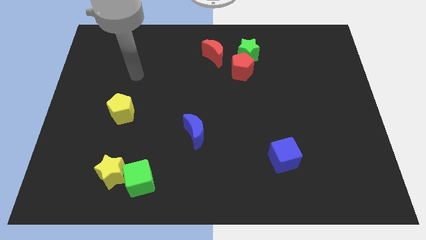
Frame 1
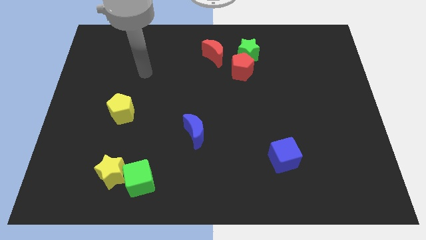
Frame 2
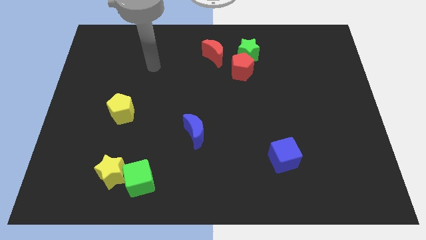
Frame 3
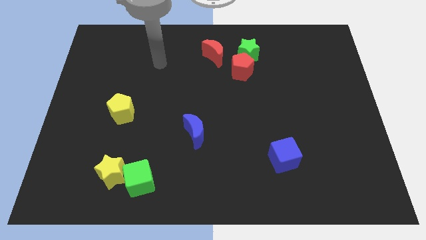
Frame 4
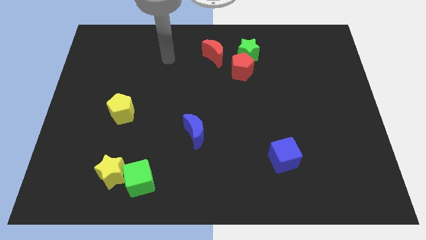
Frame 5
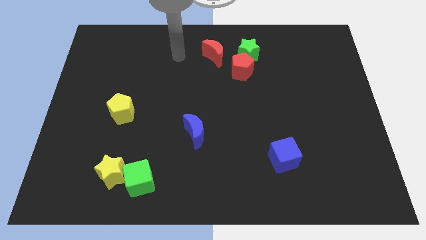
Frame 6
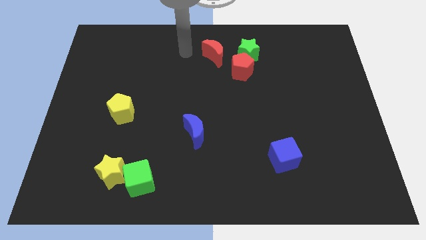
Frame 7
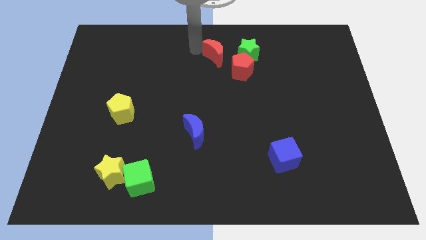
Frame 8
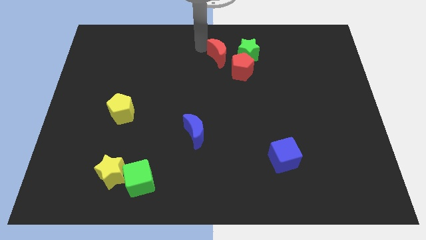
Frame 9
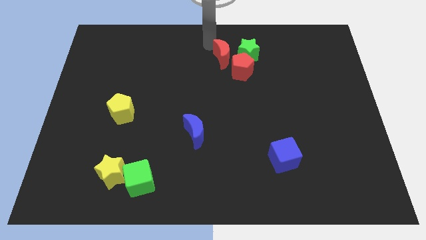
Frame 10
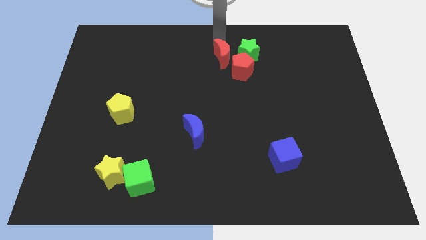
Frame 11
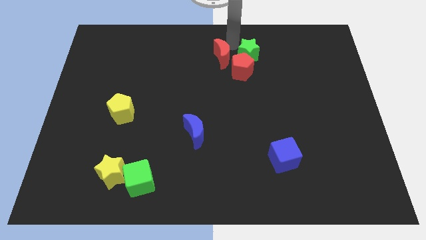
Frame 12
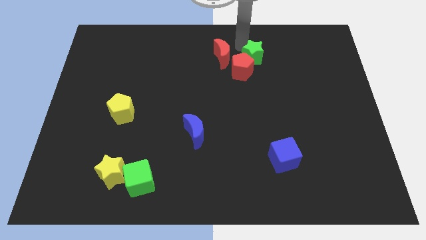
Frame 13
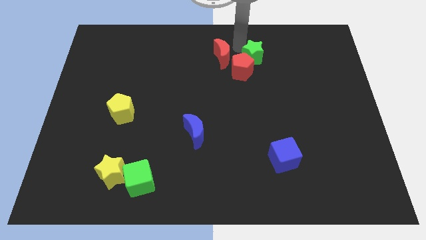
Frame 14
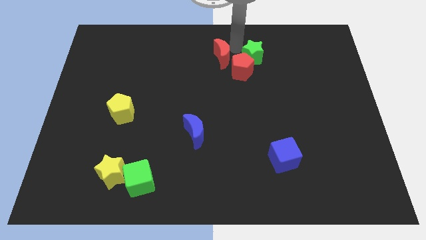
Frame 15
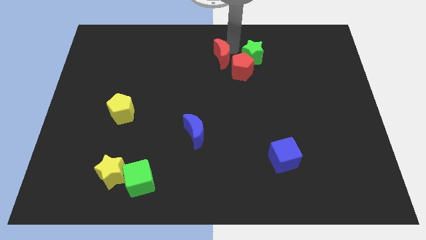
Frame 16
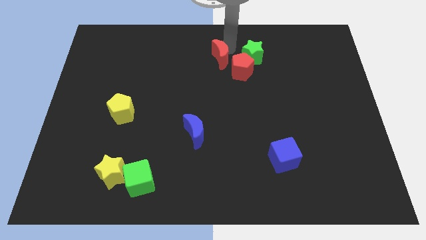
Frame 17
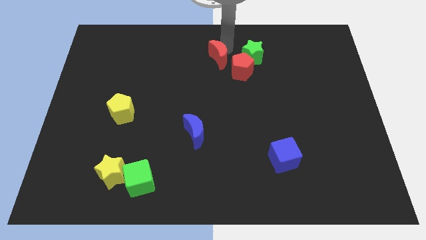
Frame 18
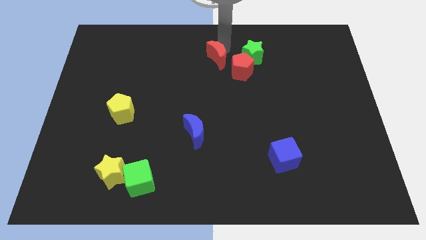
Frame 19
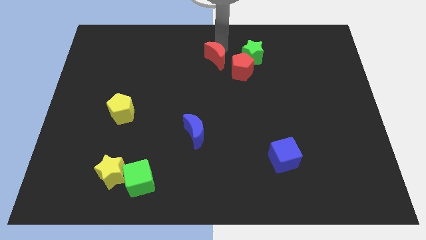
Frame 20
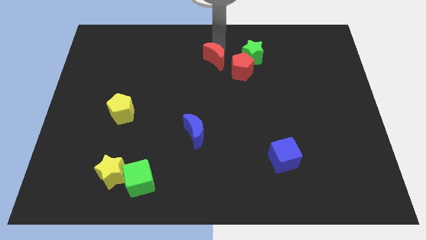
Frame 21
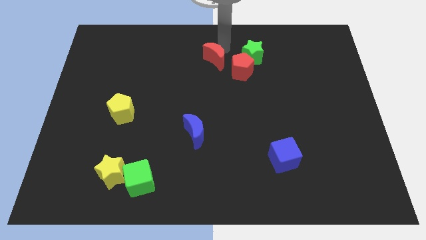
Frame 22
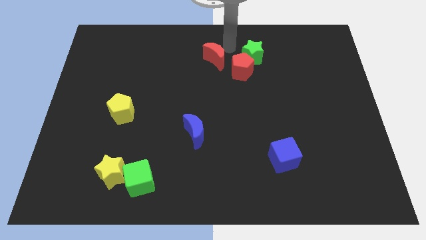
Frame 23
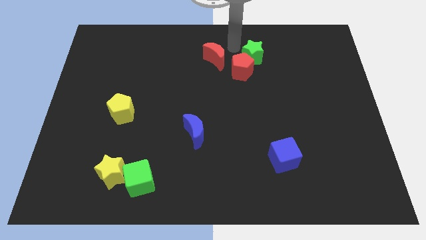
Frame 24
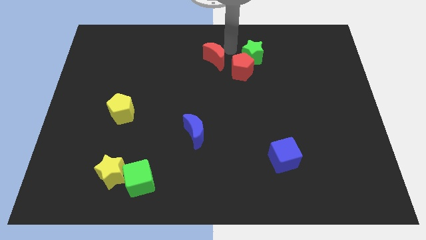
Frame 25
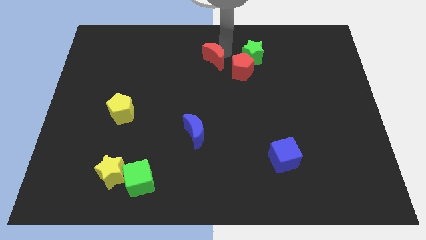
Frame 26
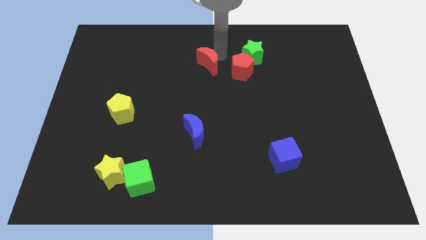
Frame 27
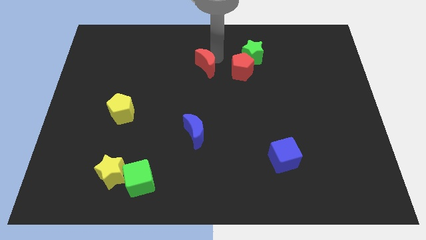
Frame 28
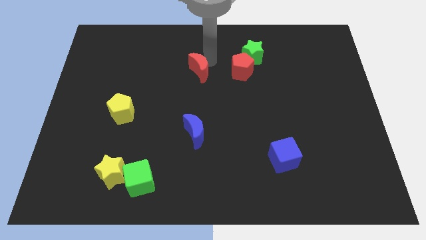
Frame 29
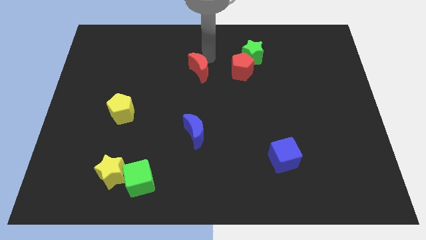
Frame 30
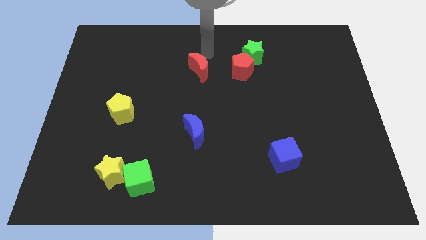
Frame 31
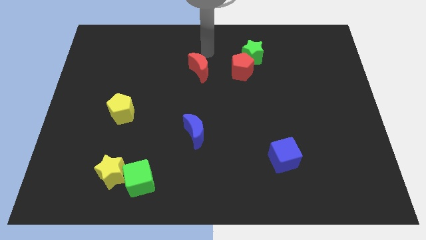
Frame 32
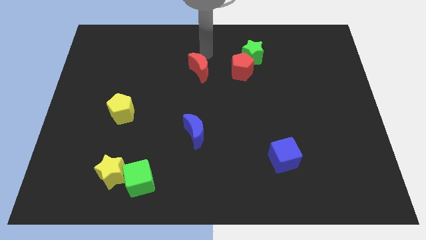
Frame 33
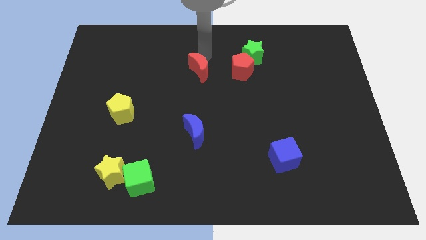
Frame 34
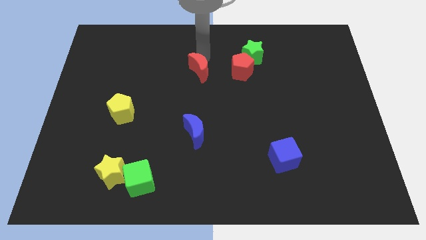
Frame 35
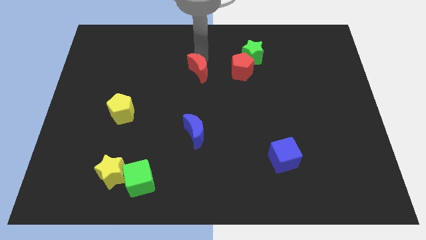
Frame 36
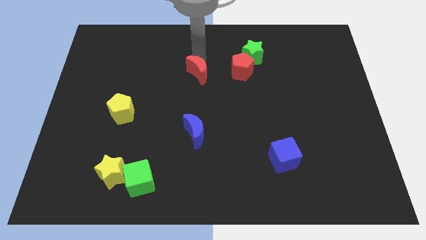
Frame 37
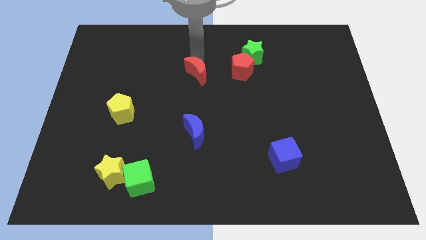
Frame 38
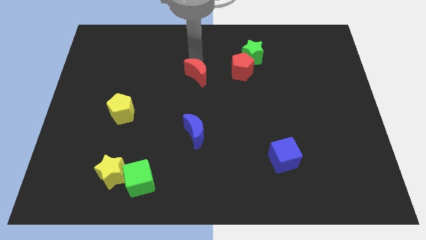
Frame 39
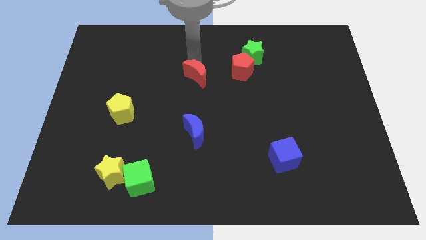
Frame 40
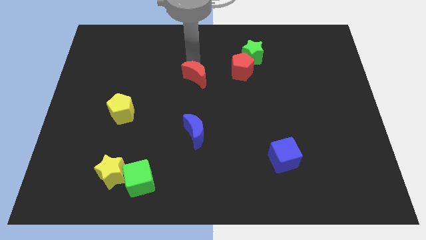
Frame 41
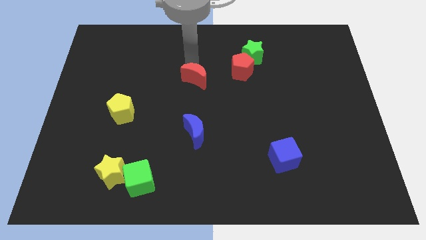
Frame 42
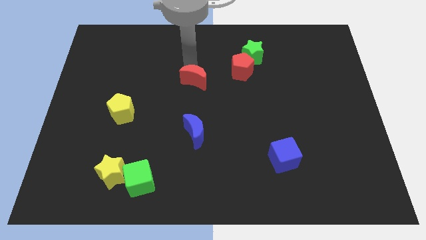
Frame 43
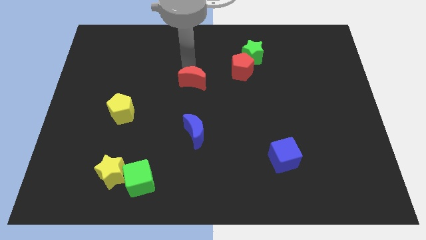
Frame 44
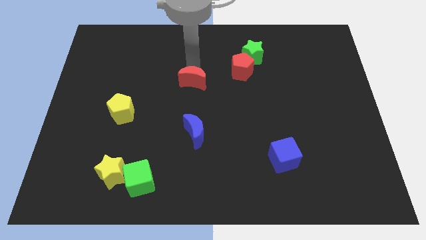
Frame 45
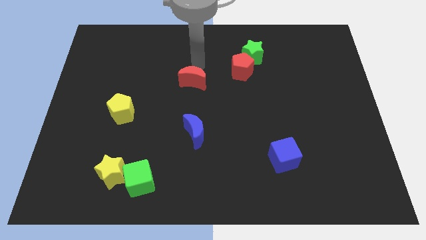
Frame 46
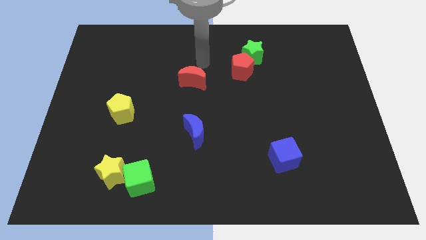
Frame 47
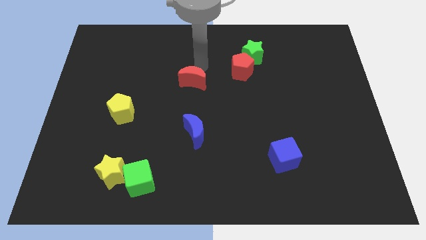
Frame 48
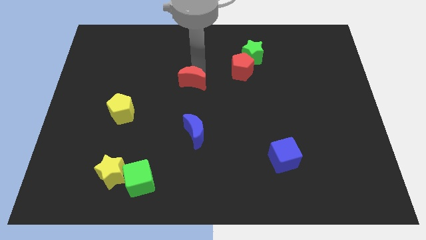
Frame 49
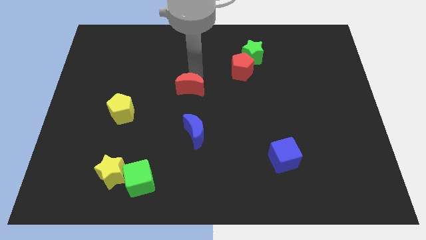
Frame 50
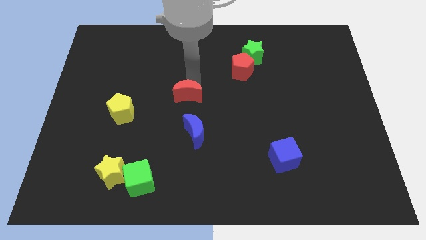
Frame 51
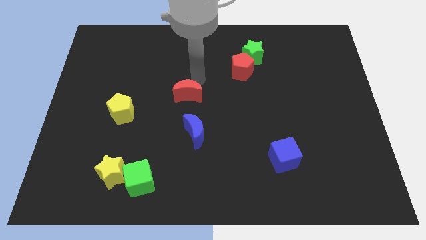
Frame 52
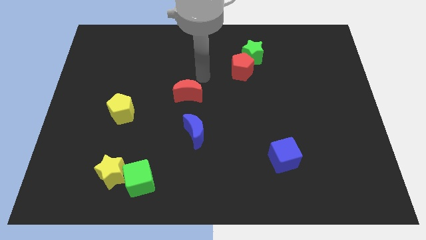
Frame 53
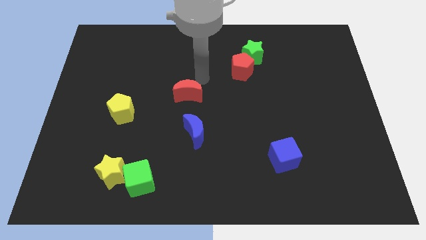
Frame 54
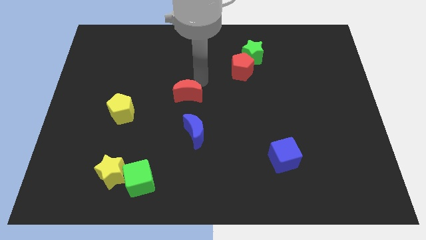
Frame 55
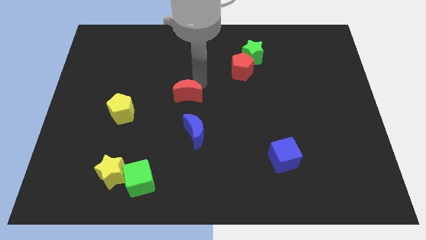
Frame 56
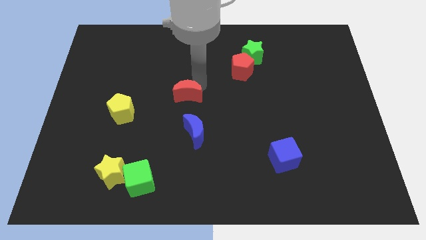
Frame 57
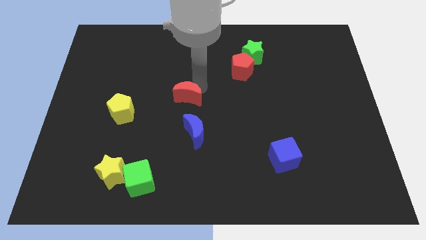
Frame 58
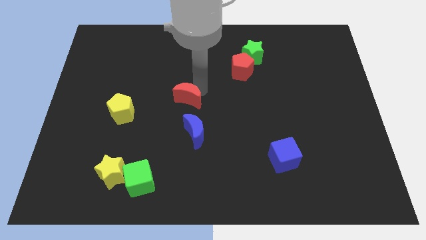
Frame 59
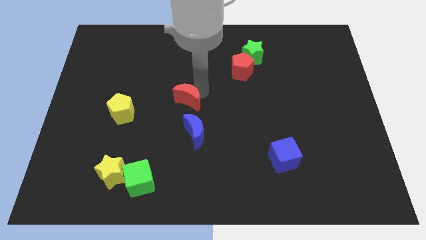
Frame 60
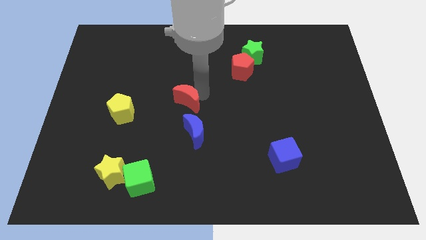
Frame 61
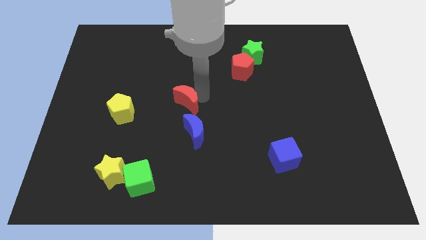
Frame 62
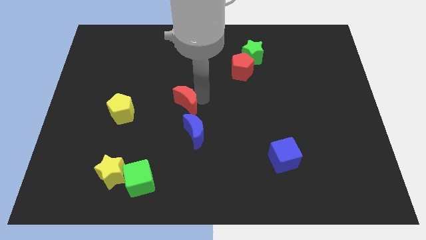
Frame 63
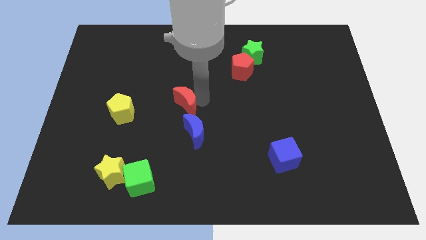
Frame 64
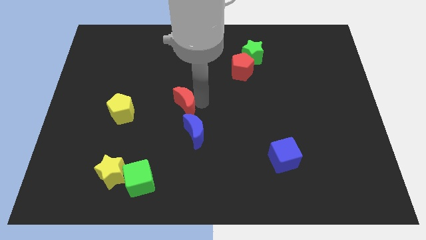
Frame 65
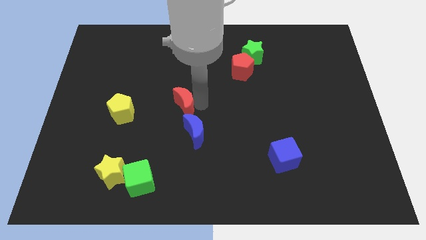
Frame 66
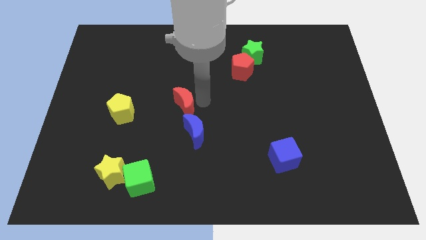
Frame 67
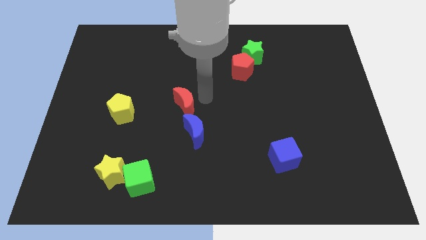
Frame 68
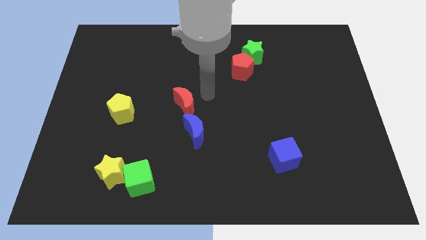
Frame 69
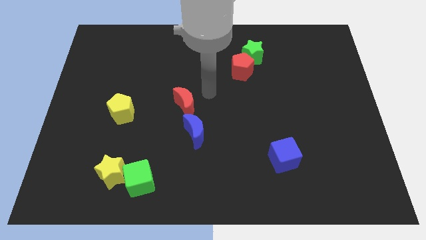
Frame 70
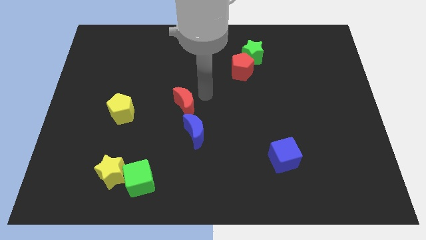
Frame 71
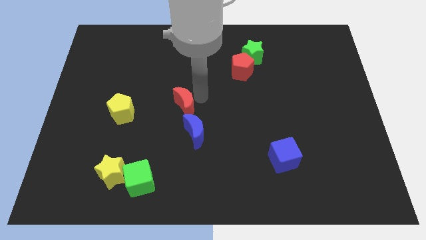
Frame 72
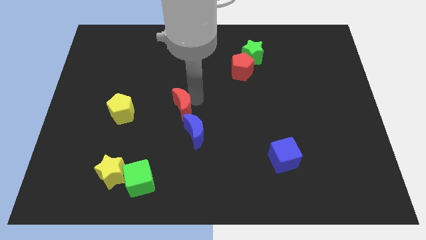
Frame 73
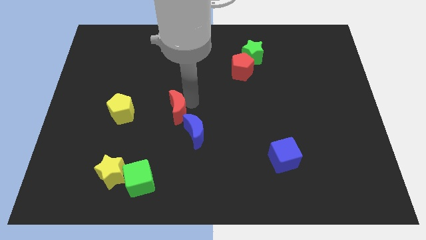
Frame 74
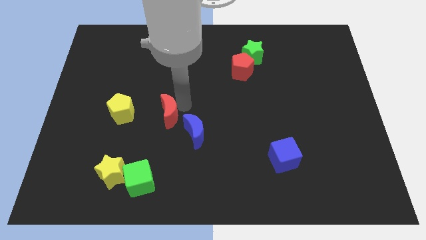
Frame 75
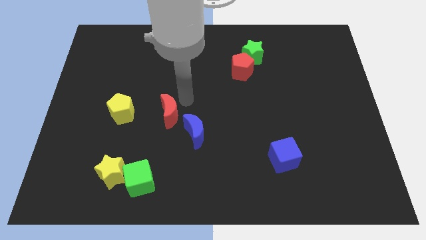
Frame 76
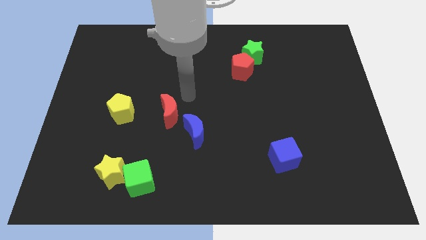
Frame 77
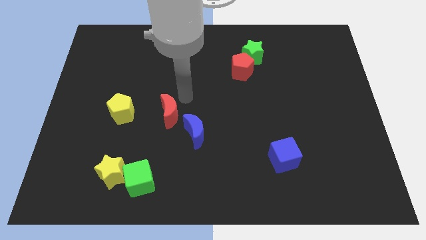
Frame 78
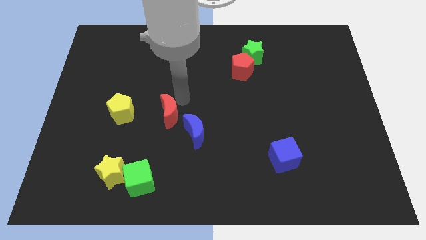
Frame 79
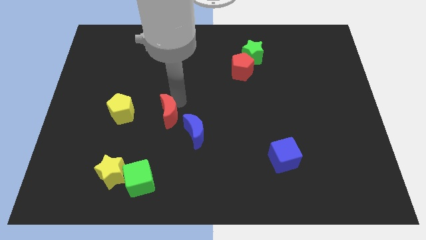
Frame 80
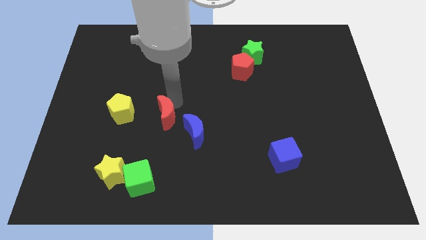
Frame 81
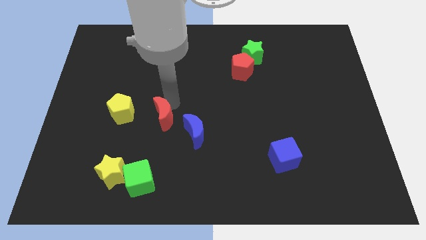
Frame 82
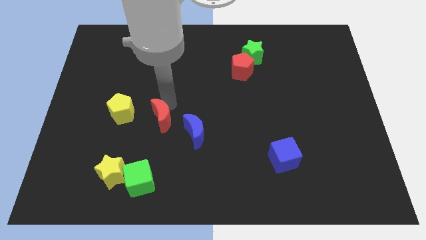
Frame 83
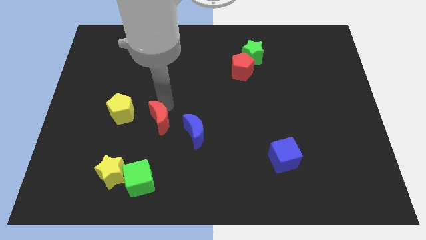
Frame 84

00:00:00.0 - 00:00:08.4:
move the red moon above the green cube
